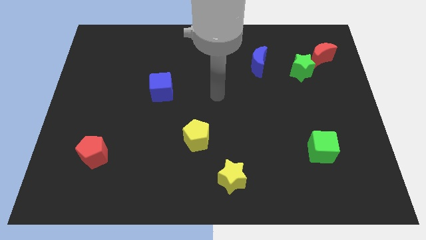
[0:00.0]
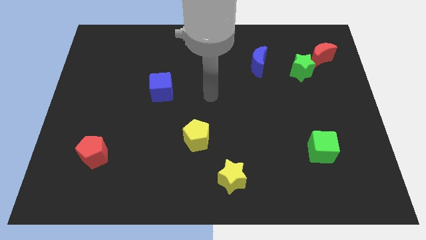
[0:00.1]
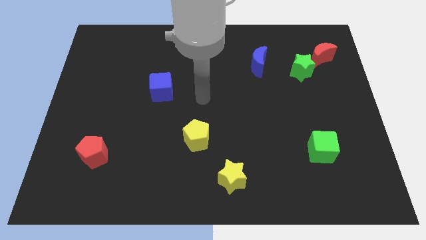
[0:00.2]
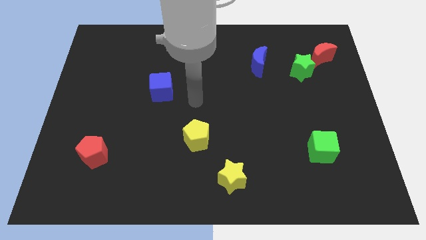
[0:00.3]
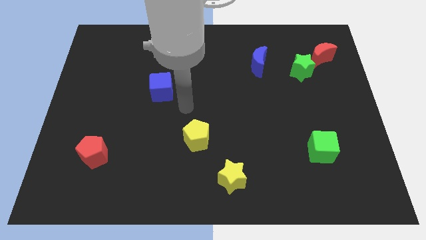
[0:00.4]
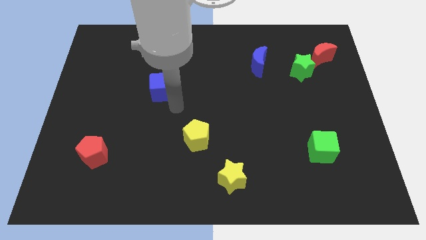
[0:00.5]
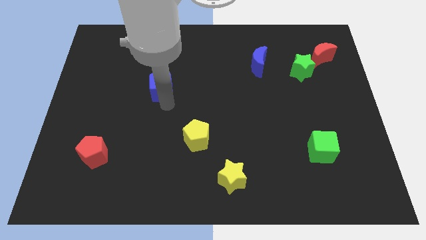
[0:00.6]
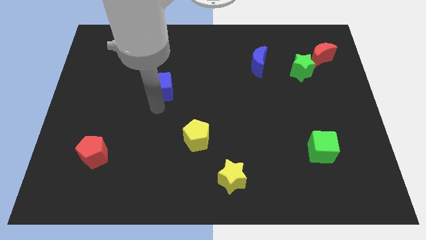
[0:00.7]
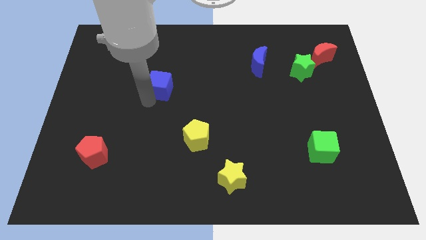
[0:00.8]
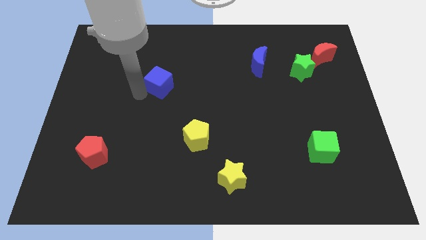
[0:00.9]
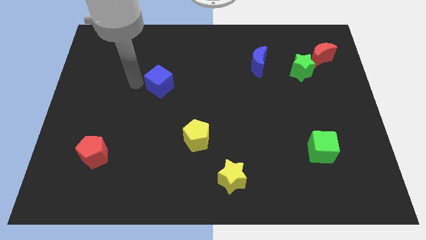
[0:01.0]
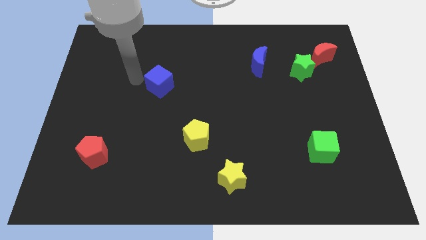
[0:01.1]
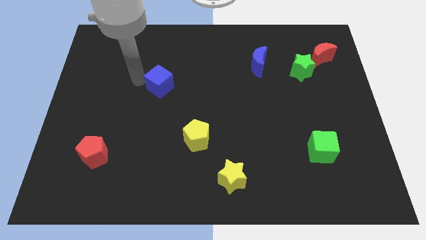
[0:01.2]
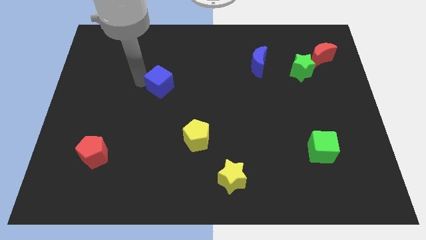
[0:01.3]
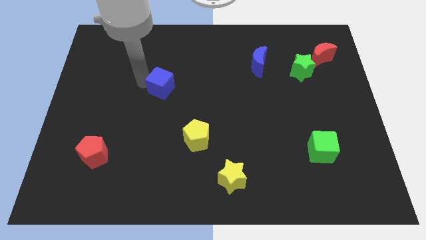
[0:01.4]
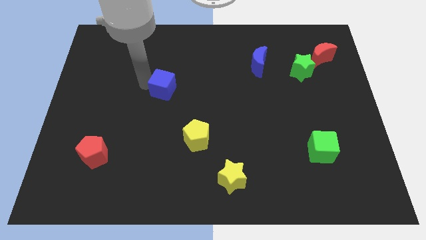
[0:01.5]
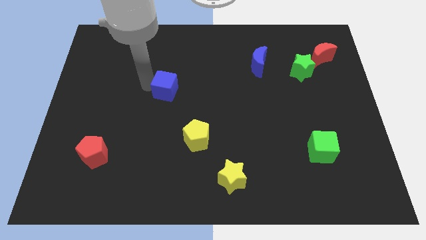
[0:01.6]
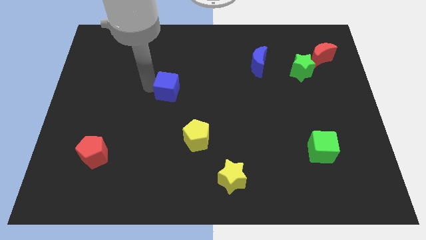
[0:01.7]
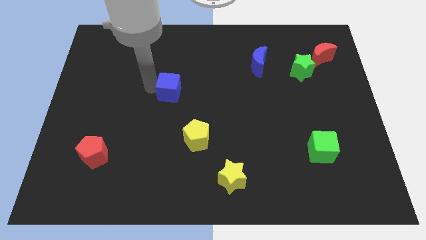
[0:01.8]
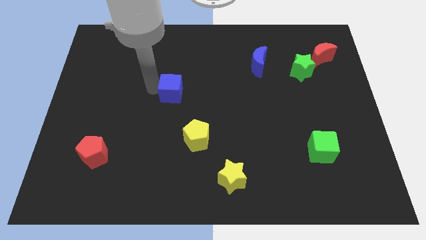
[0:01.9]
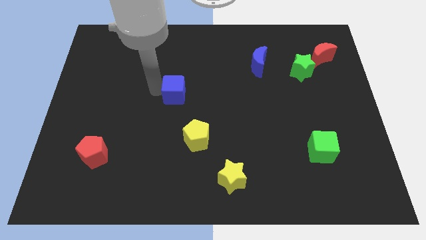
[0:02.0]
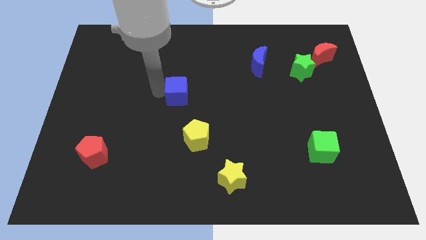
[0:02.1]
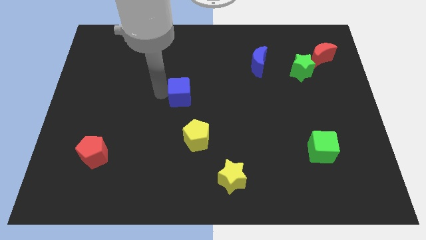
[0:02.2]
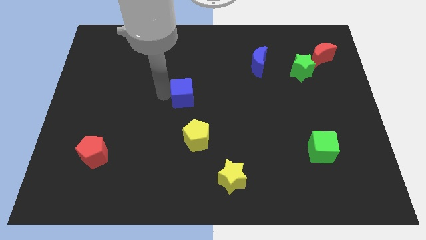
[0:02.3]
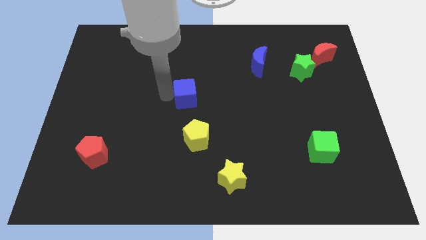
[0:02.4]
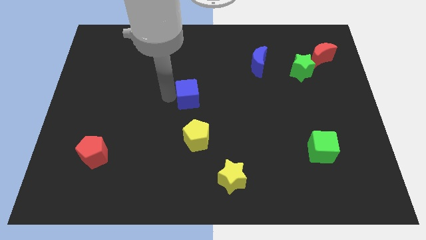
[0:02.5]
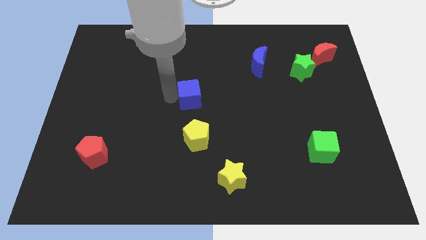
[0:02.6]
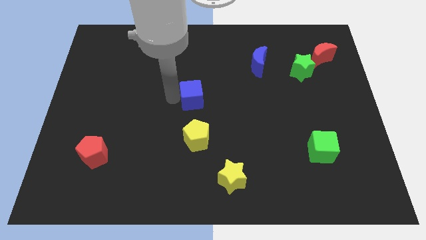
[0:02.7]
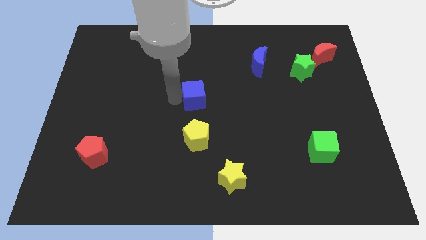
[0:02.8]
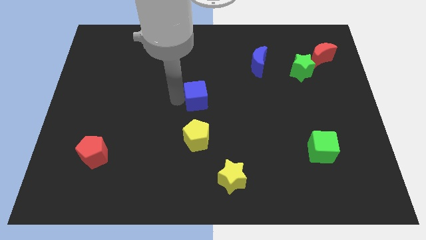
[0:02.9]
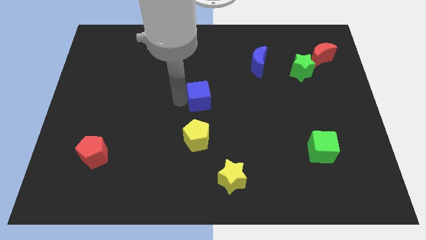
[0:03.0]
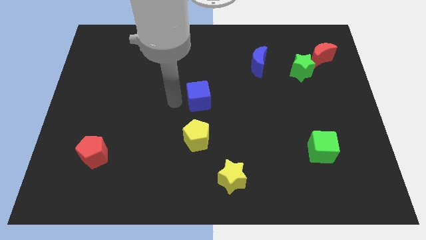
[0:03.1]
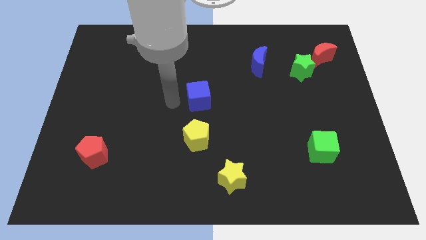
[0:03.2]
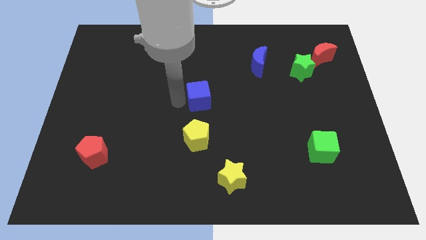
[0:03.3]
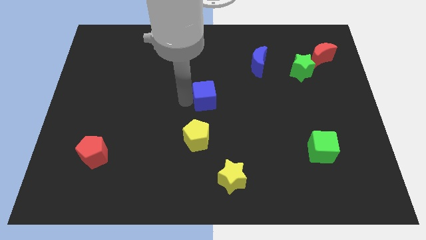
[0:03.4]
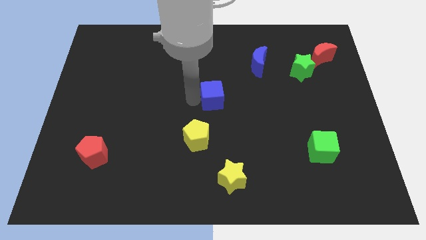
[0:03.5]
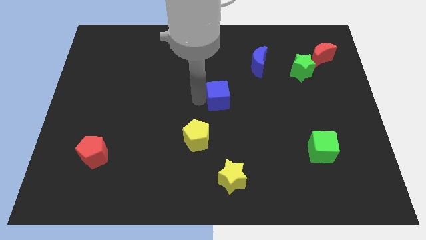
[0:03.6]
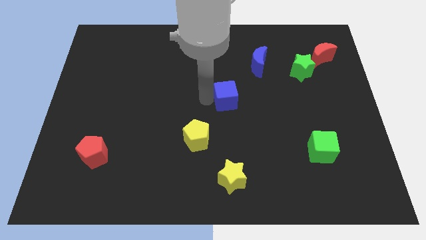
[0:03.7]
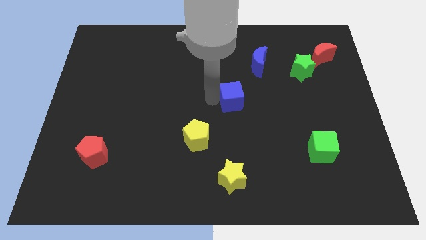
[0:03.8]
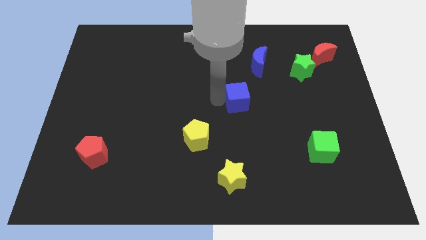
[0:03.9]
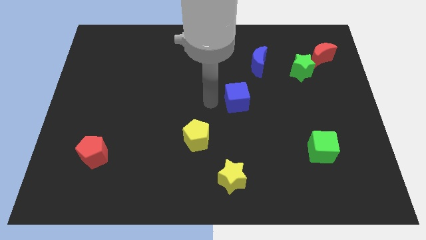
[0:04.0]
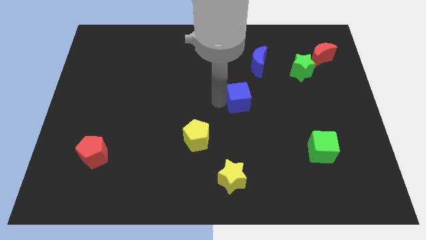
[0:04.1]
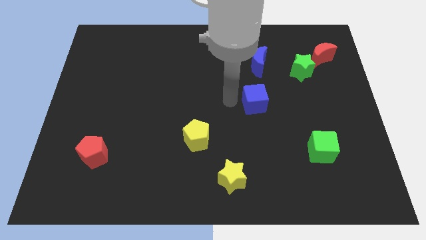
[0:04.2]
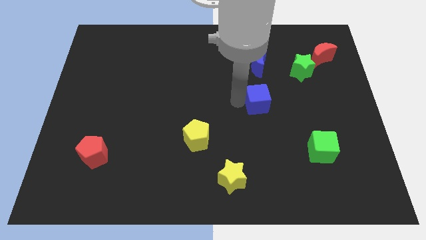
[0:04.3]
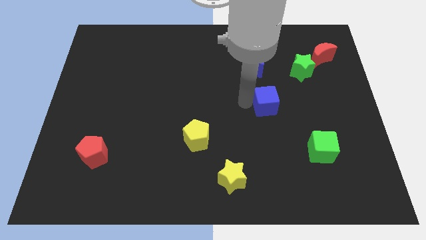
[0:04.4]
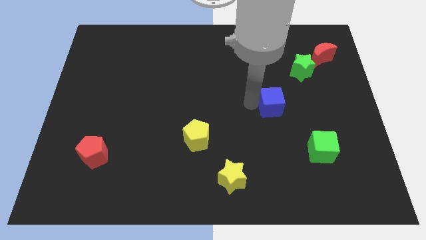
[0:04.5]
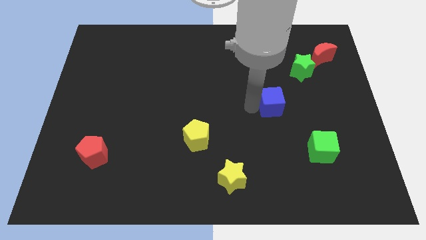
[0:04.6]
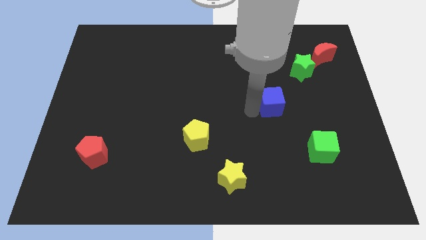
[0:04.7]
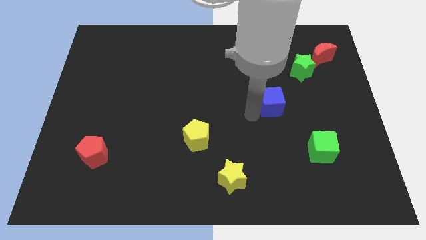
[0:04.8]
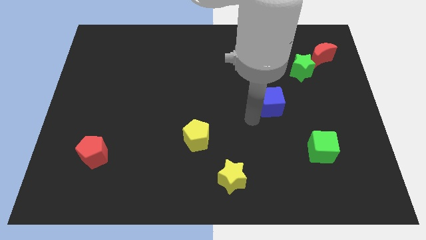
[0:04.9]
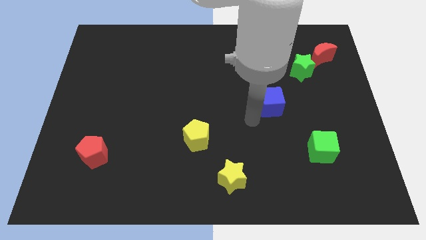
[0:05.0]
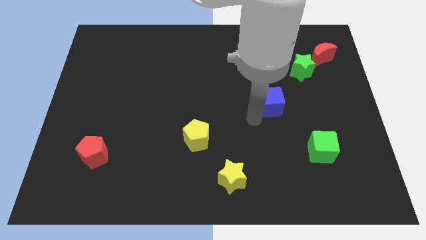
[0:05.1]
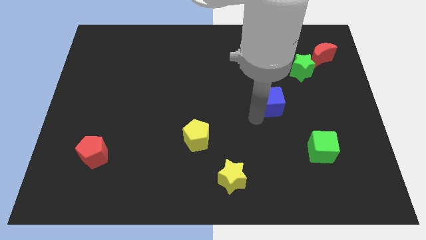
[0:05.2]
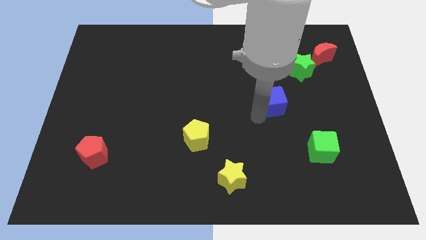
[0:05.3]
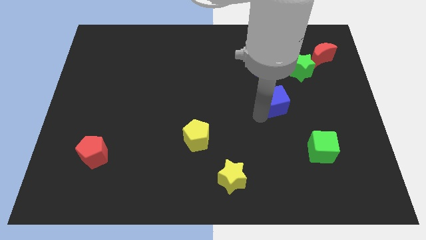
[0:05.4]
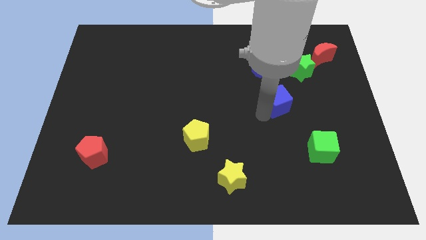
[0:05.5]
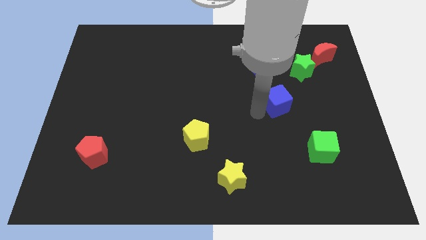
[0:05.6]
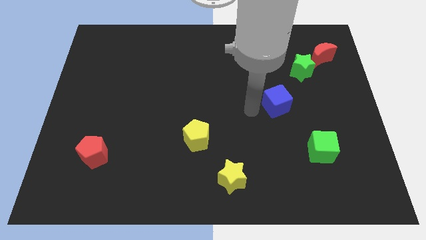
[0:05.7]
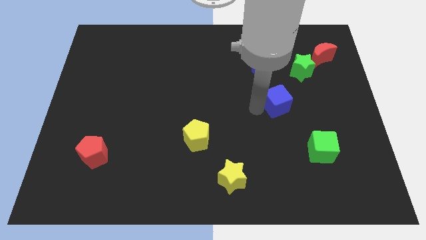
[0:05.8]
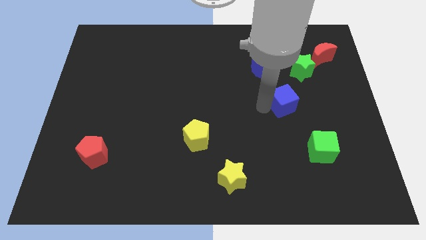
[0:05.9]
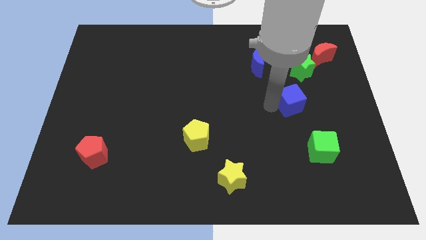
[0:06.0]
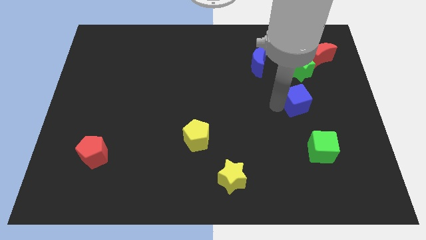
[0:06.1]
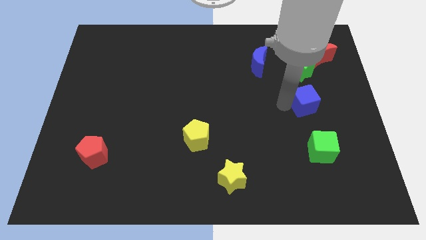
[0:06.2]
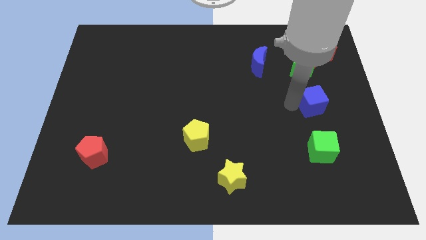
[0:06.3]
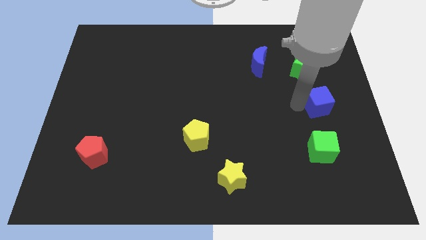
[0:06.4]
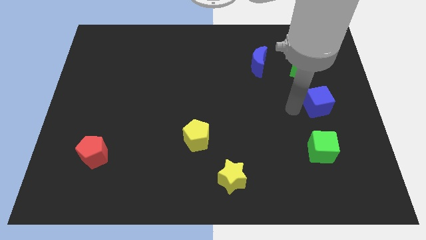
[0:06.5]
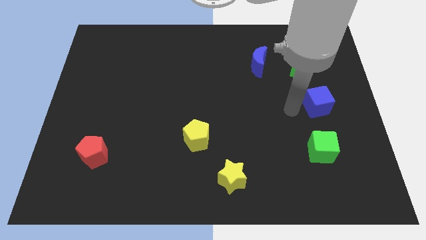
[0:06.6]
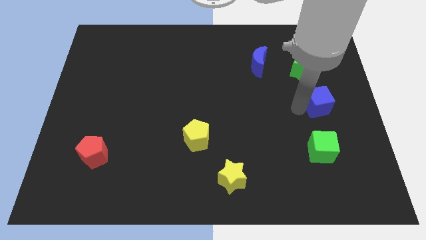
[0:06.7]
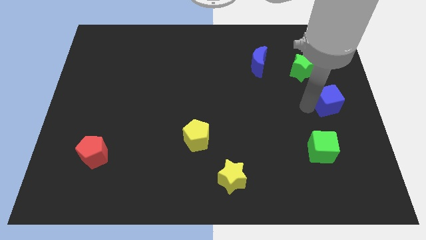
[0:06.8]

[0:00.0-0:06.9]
push the blue cube to the right side of the board
